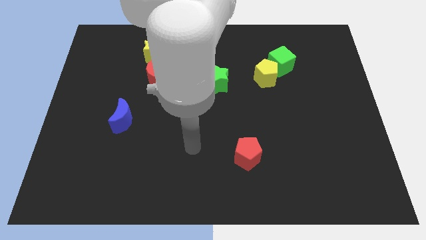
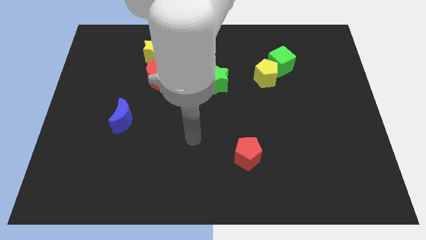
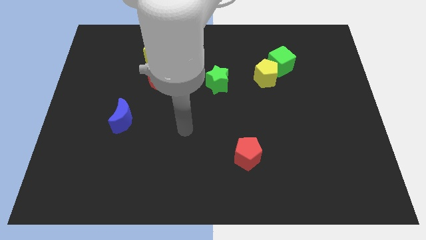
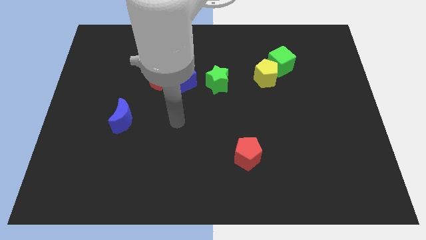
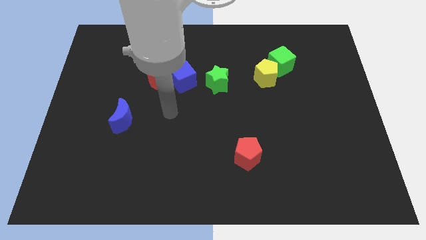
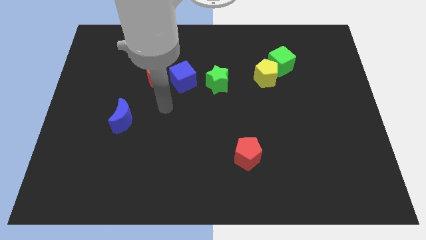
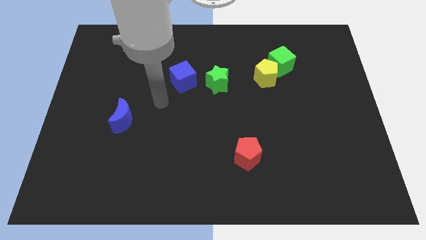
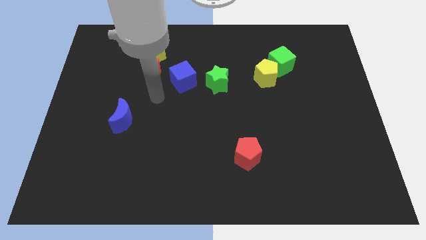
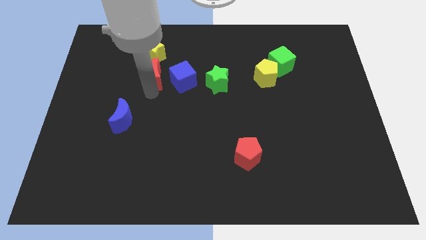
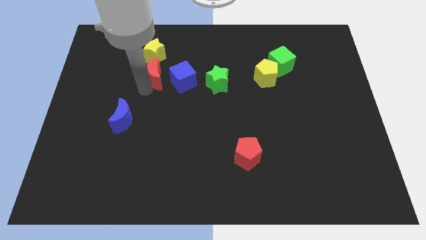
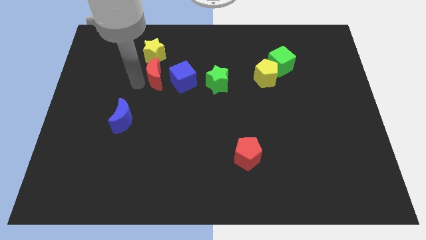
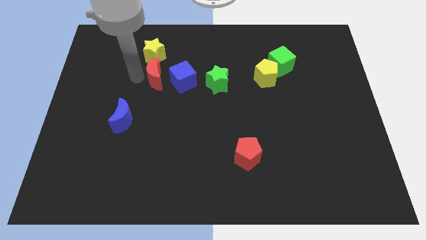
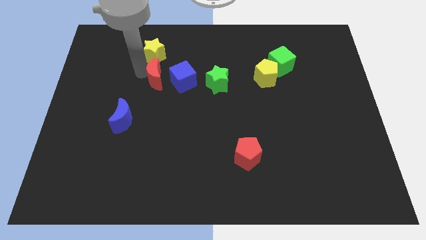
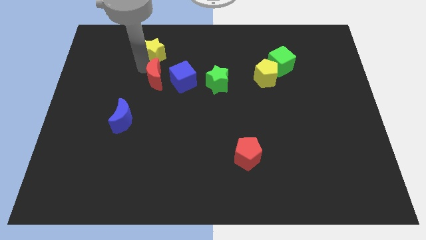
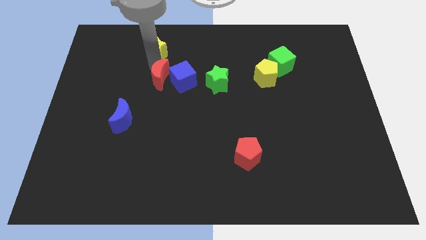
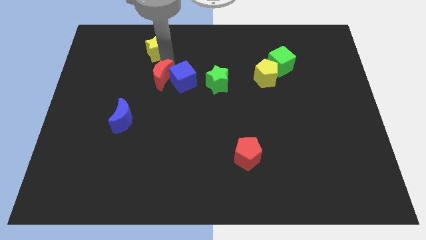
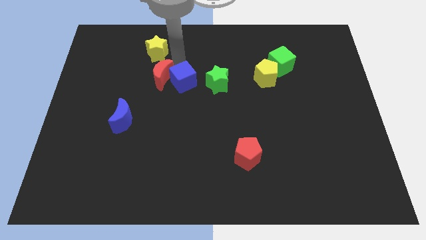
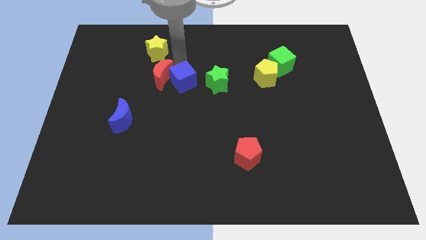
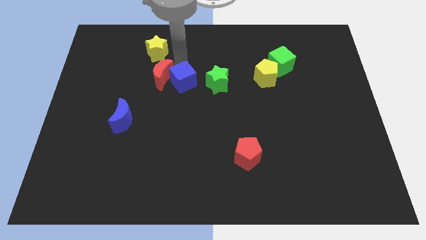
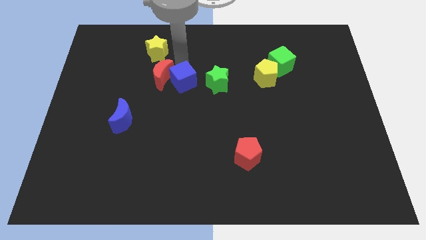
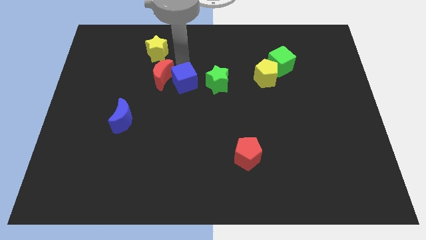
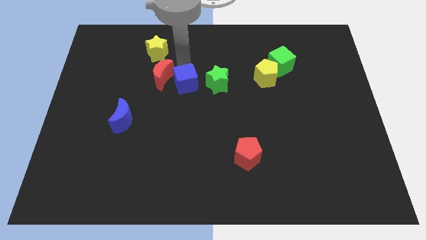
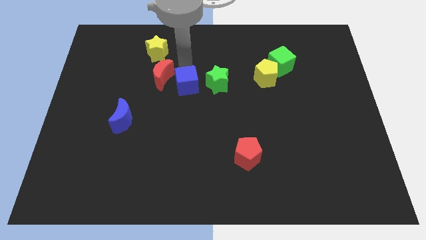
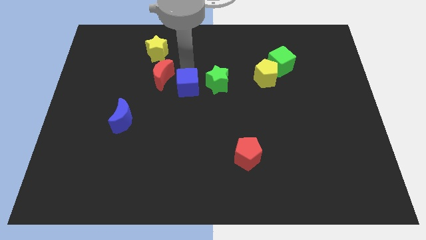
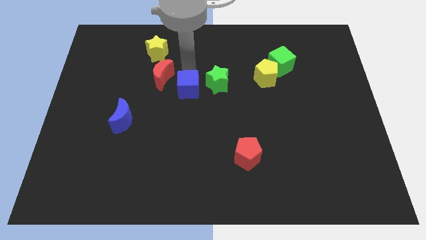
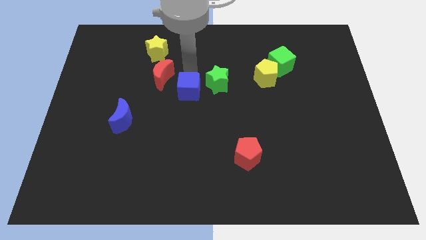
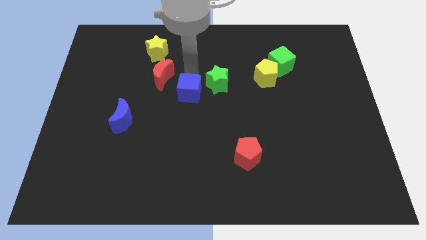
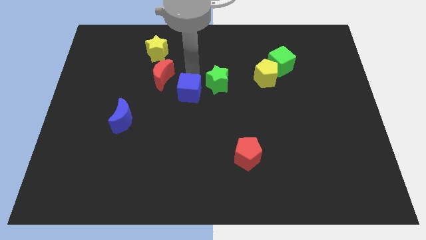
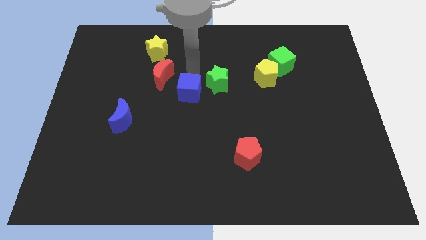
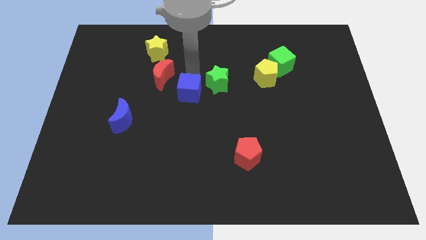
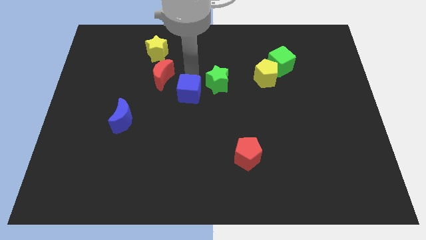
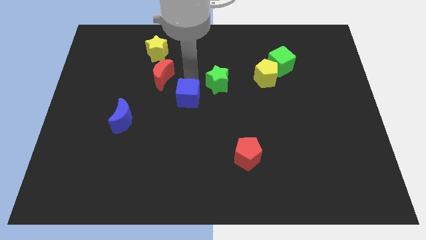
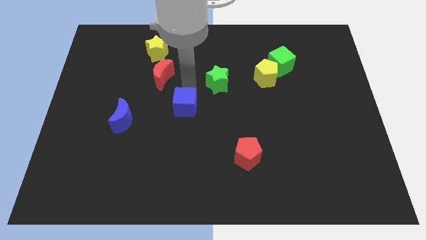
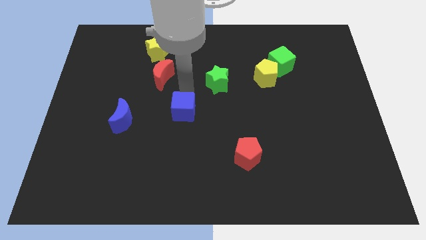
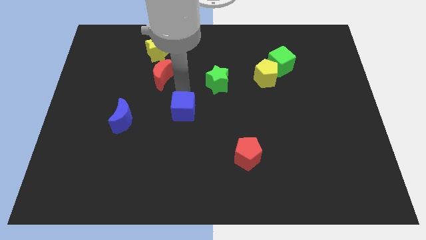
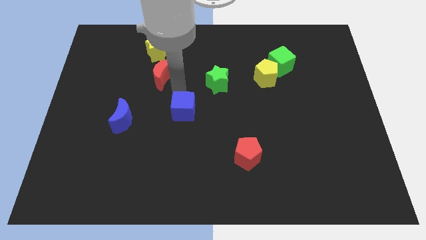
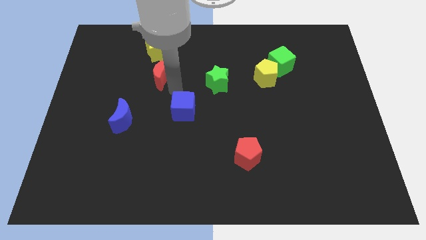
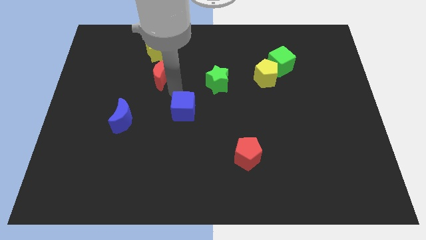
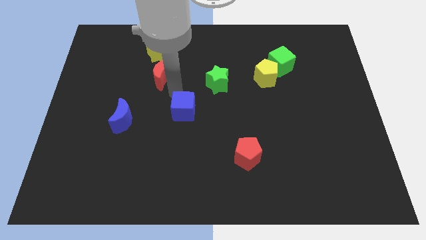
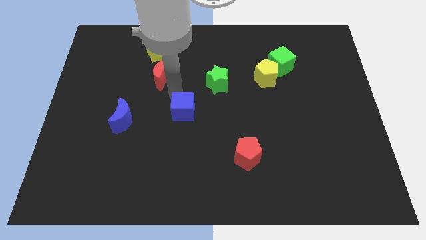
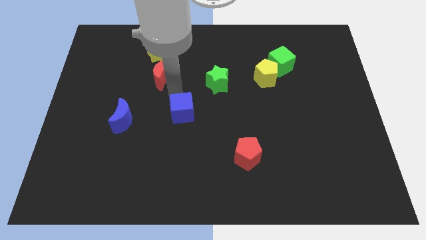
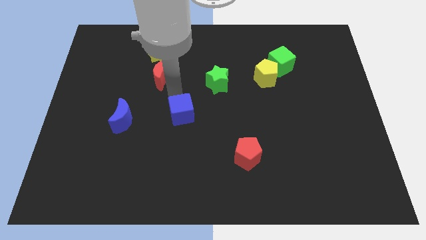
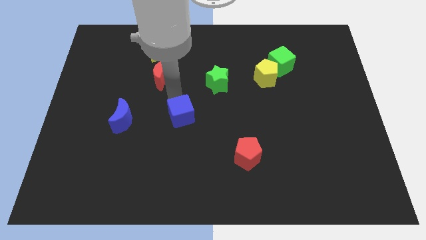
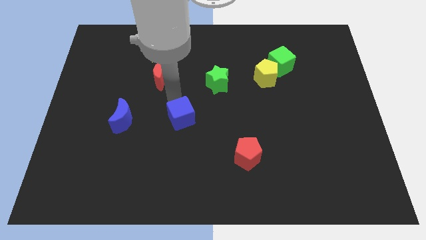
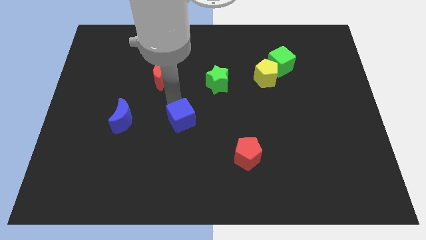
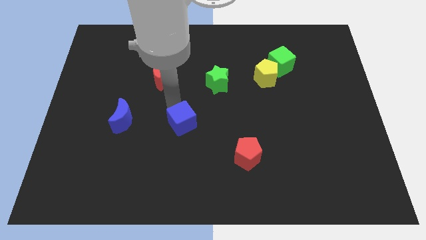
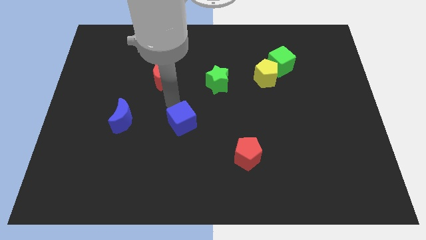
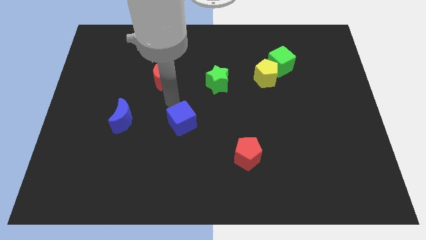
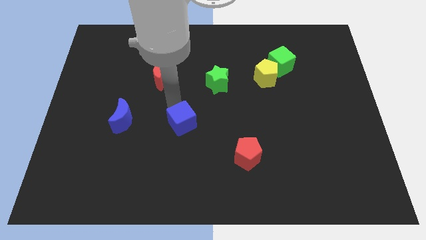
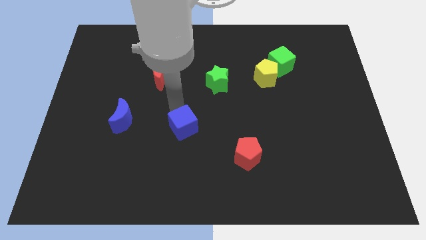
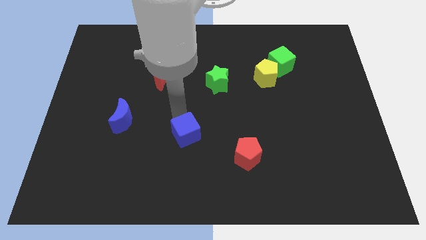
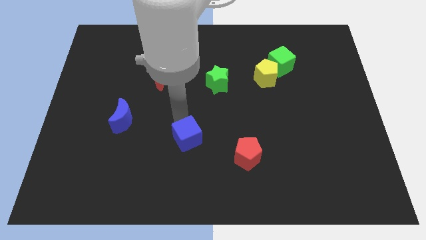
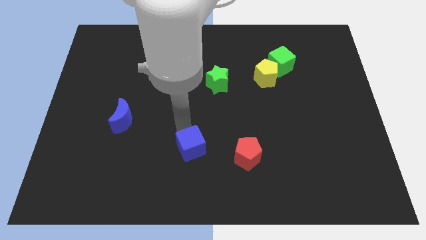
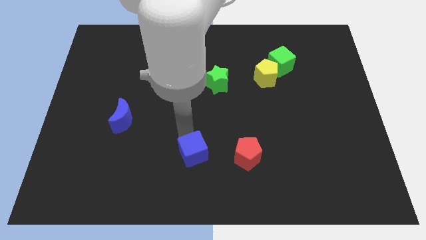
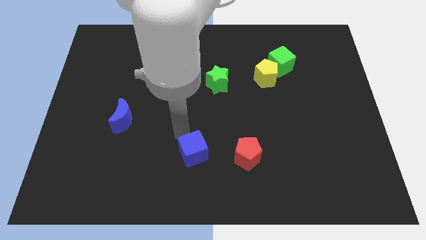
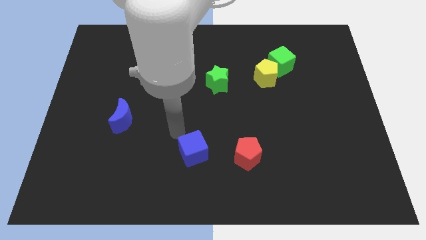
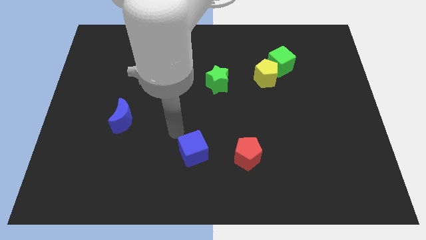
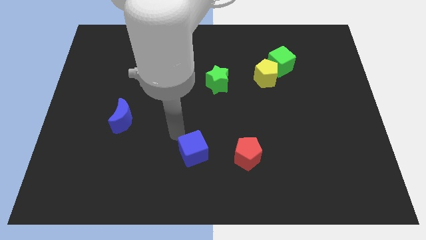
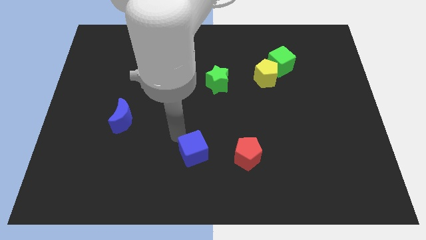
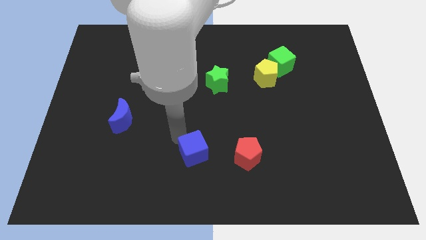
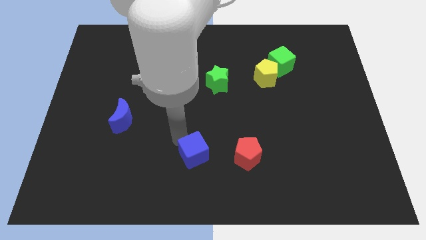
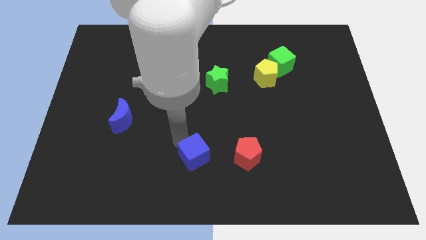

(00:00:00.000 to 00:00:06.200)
move the blue cube to the bottom side
